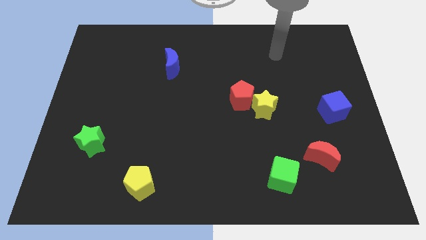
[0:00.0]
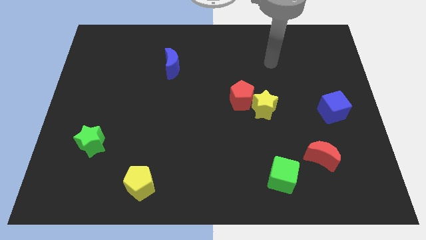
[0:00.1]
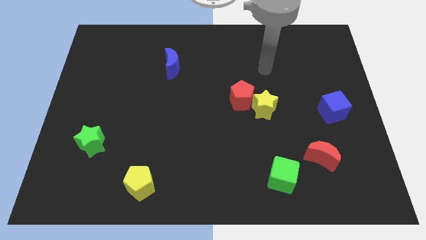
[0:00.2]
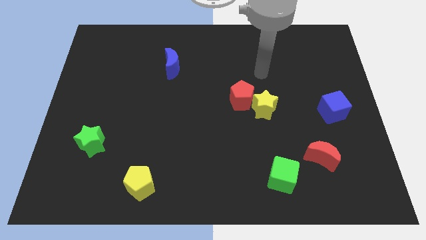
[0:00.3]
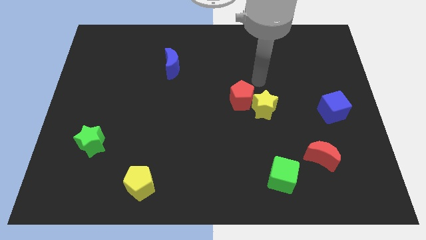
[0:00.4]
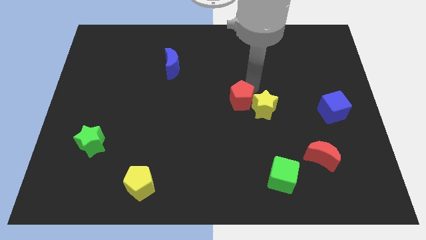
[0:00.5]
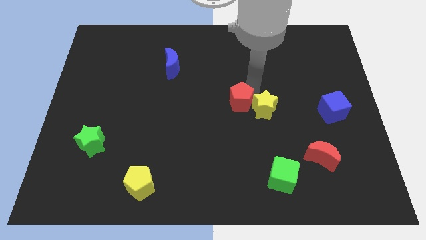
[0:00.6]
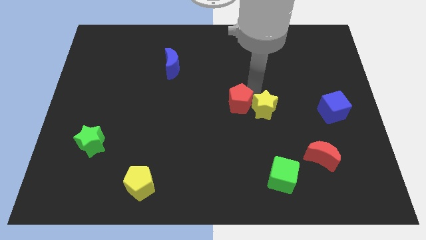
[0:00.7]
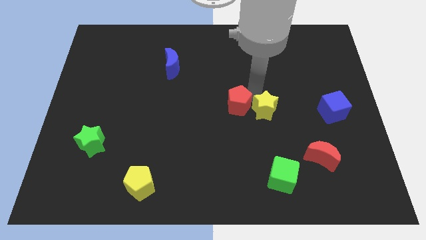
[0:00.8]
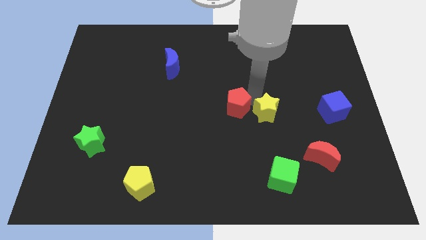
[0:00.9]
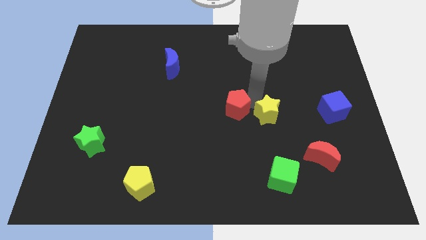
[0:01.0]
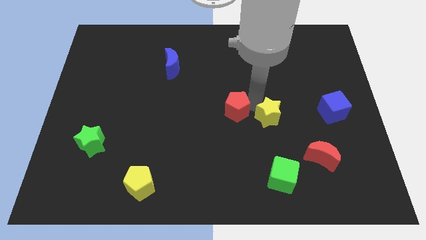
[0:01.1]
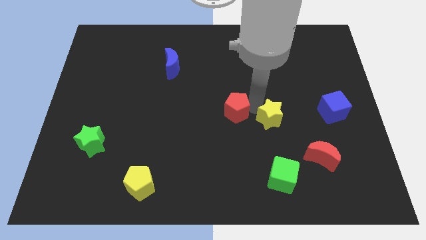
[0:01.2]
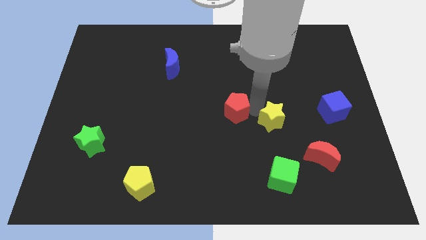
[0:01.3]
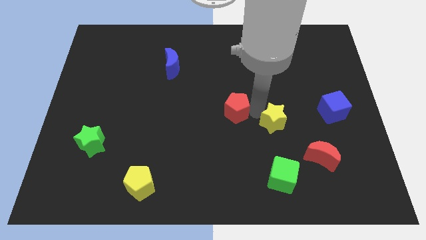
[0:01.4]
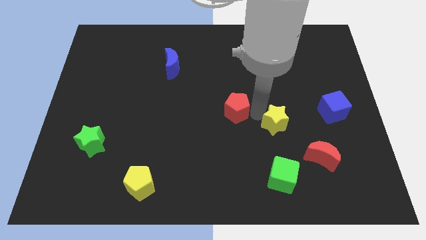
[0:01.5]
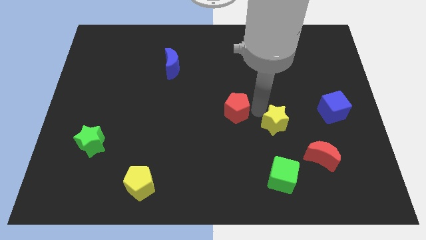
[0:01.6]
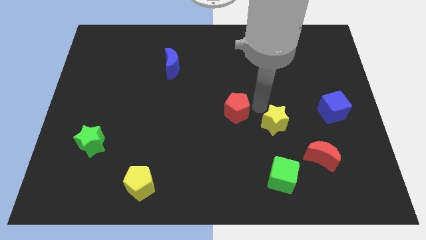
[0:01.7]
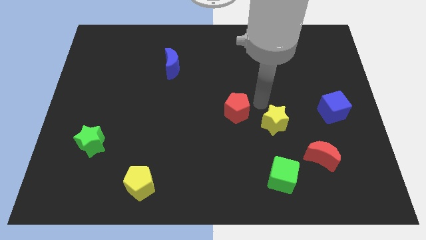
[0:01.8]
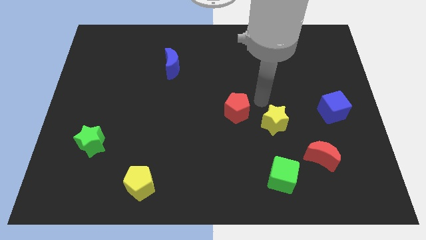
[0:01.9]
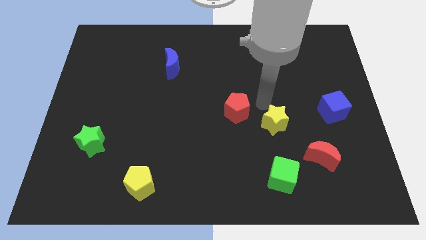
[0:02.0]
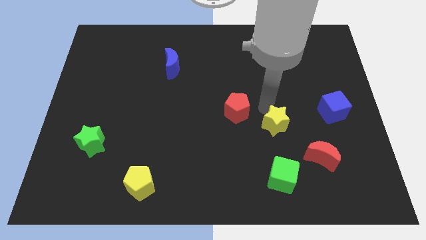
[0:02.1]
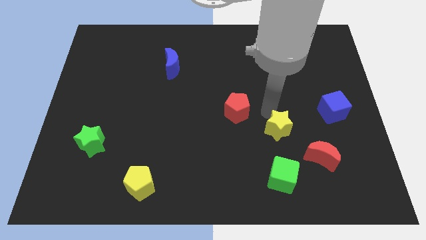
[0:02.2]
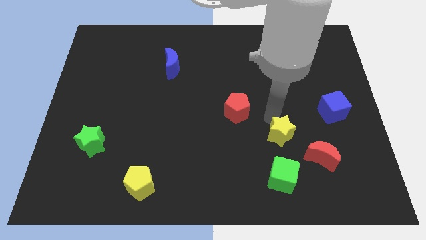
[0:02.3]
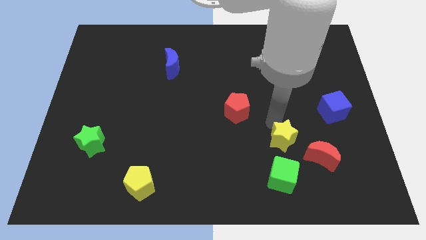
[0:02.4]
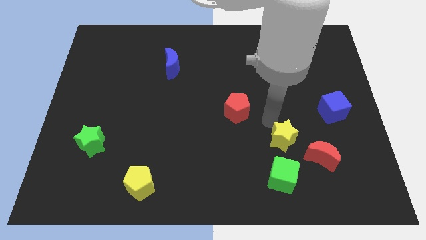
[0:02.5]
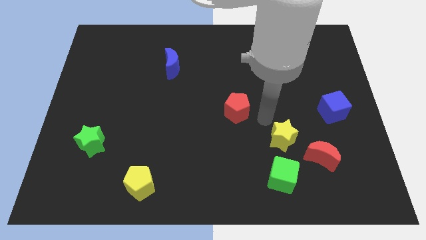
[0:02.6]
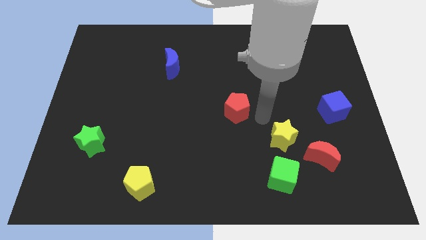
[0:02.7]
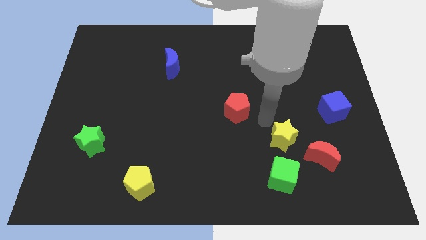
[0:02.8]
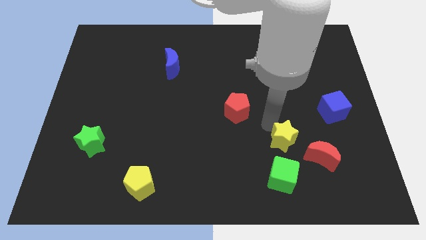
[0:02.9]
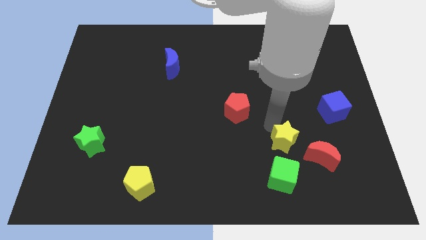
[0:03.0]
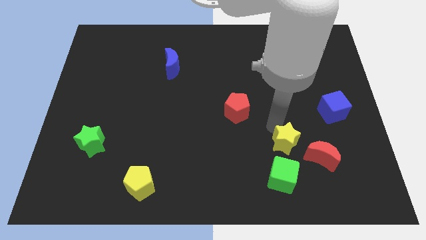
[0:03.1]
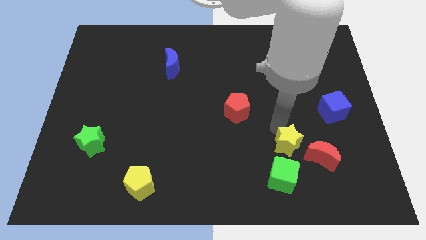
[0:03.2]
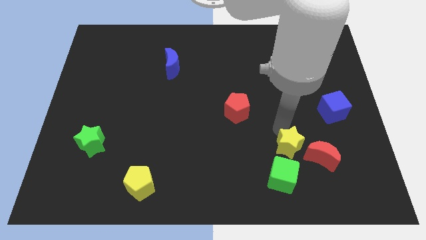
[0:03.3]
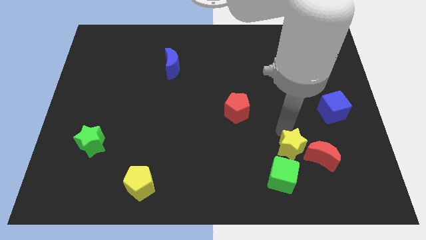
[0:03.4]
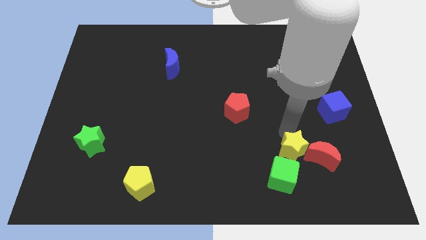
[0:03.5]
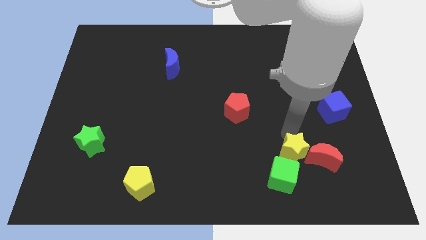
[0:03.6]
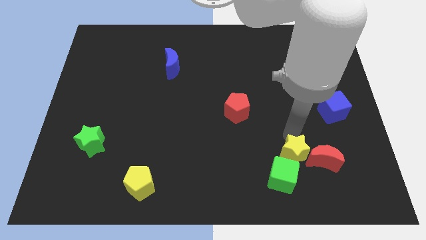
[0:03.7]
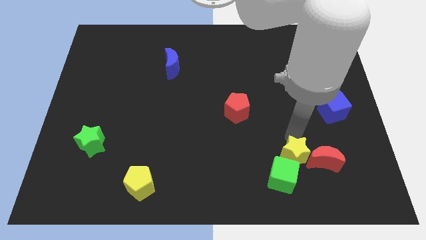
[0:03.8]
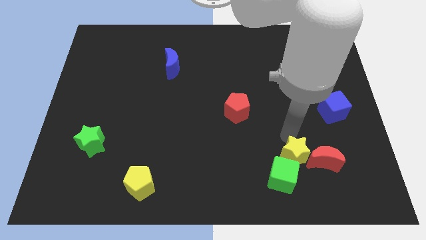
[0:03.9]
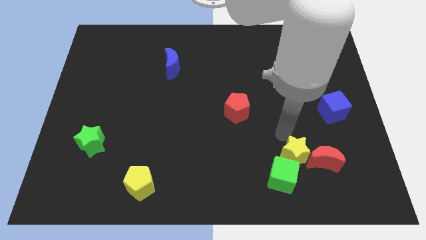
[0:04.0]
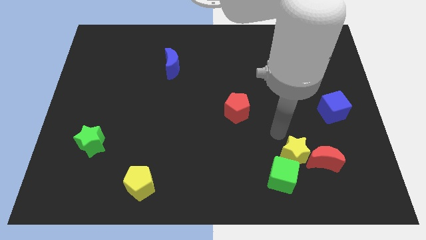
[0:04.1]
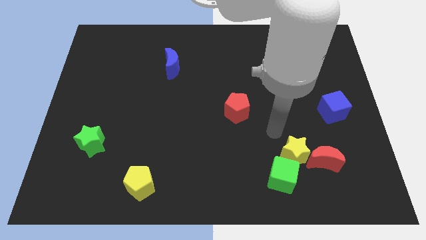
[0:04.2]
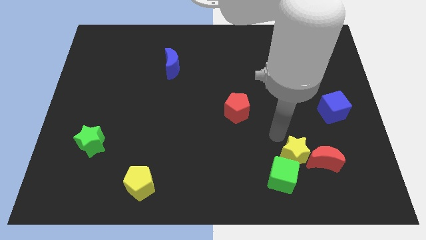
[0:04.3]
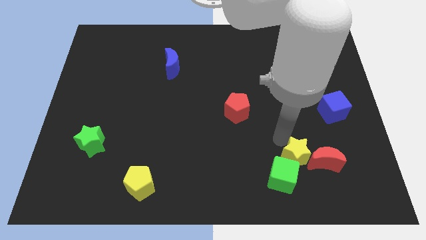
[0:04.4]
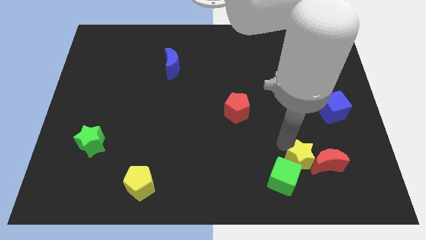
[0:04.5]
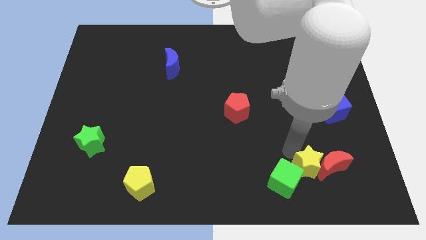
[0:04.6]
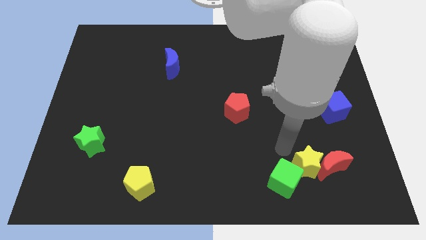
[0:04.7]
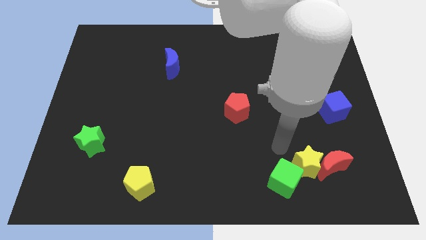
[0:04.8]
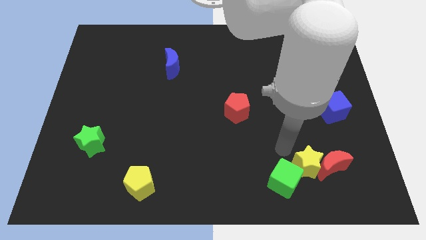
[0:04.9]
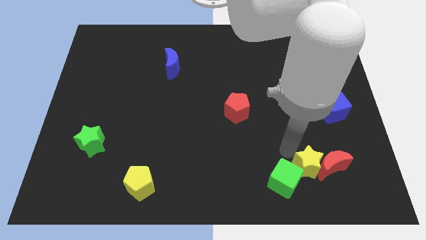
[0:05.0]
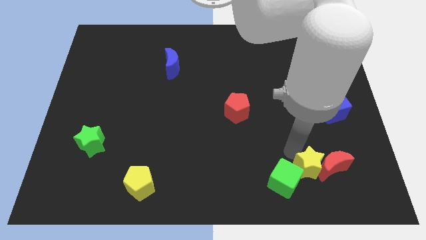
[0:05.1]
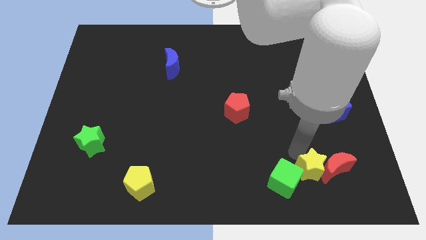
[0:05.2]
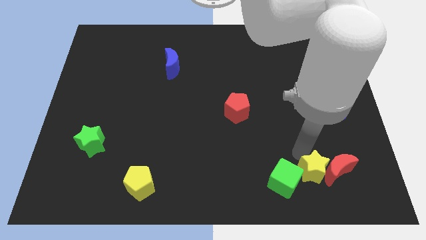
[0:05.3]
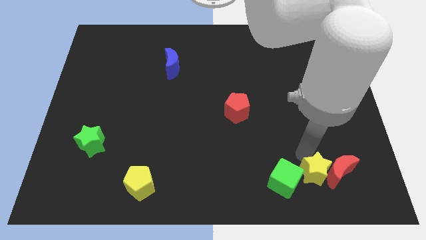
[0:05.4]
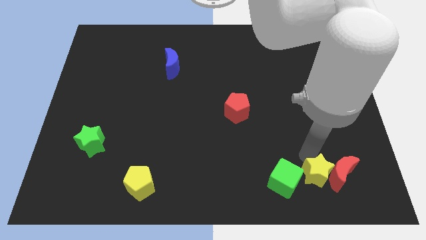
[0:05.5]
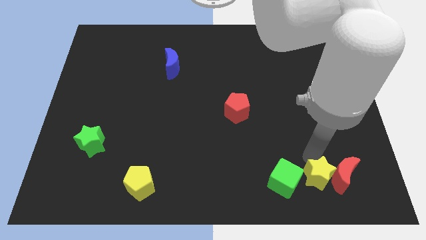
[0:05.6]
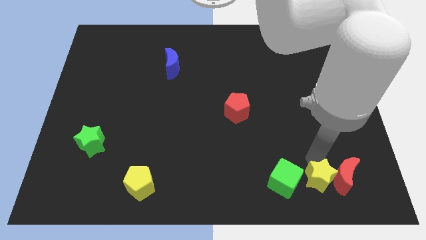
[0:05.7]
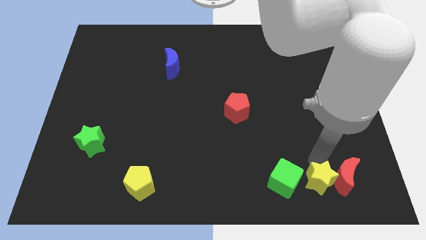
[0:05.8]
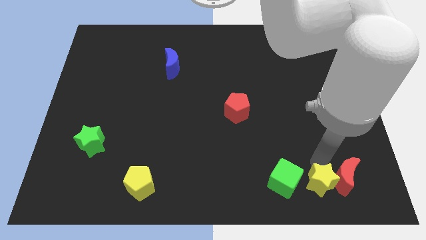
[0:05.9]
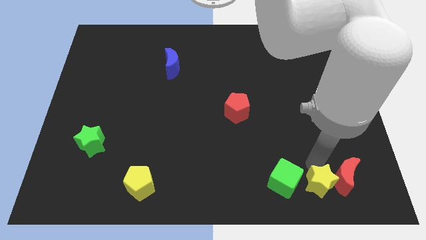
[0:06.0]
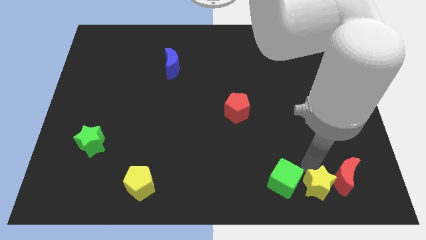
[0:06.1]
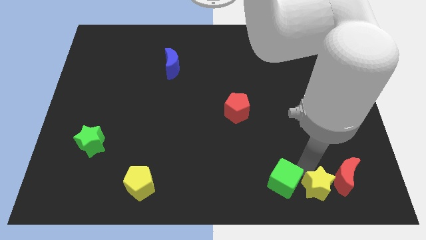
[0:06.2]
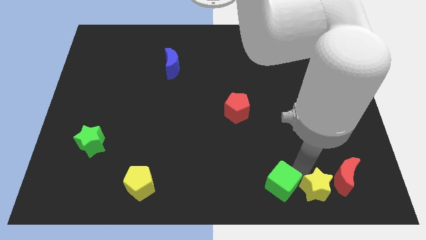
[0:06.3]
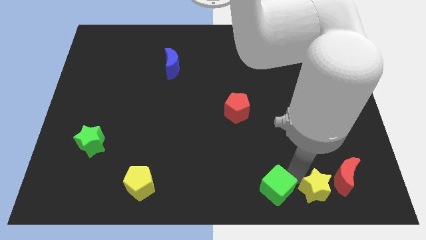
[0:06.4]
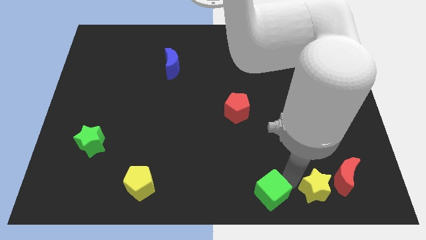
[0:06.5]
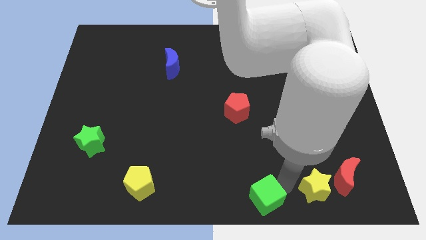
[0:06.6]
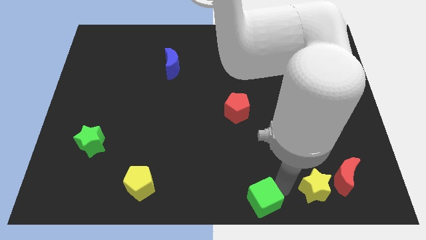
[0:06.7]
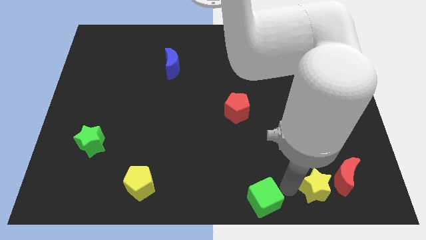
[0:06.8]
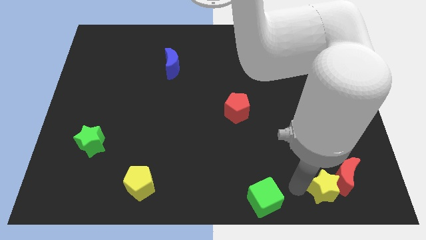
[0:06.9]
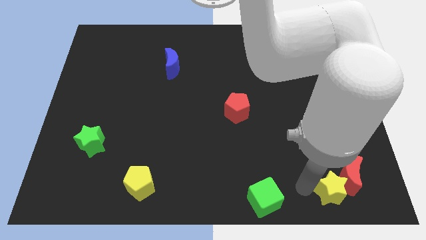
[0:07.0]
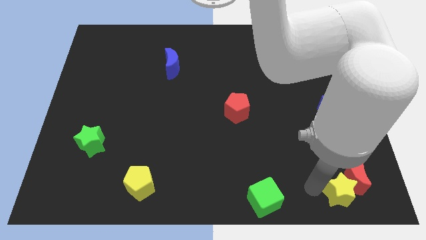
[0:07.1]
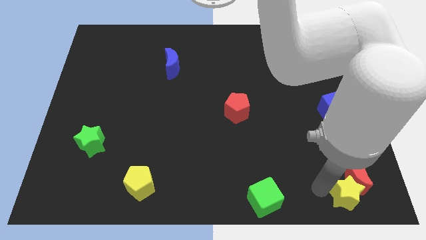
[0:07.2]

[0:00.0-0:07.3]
push the yellow star to the bottom right
